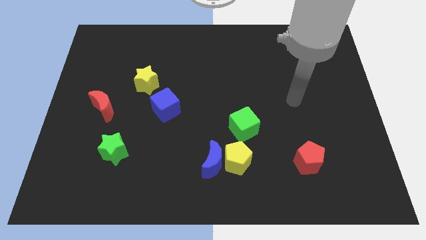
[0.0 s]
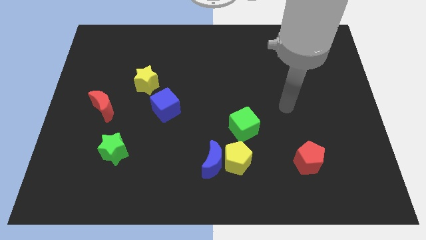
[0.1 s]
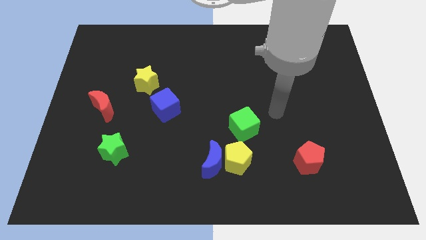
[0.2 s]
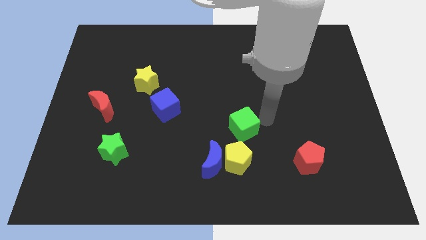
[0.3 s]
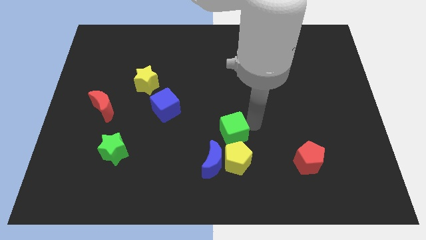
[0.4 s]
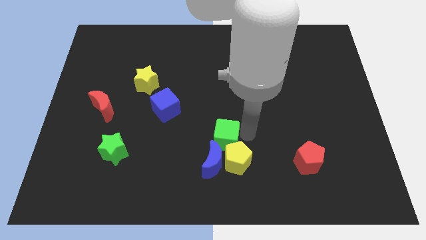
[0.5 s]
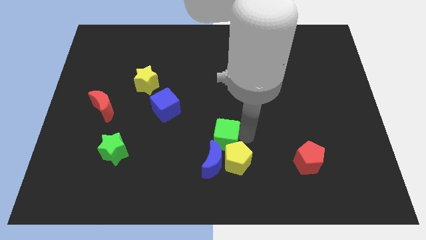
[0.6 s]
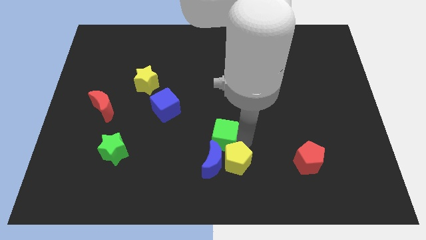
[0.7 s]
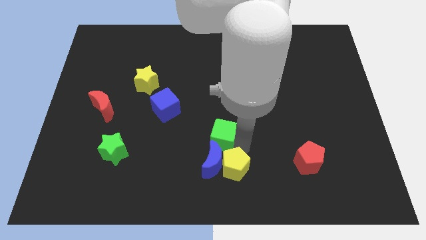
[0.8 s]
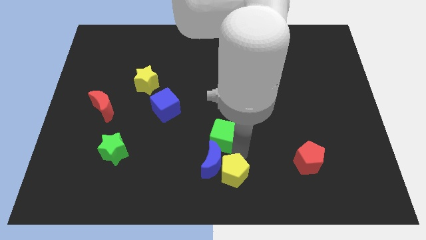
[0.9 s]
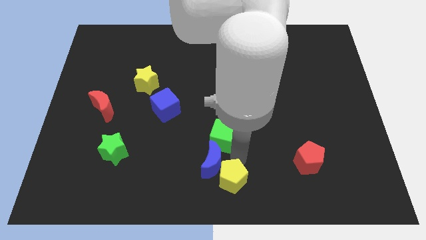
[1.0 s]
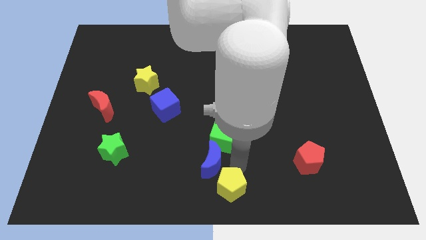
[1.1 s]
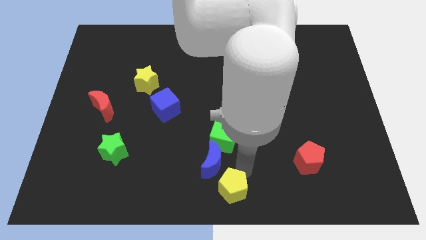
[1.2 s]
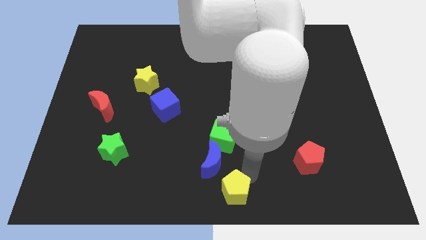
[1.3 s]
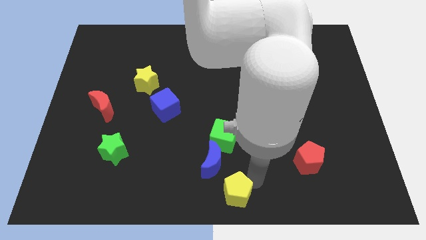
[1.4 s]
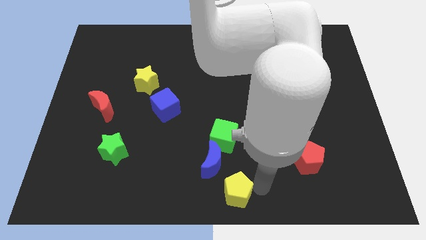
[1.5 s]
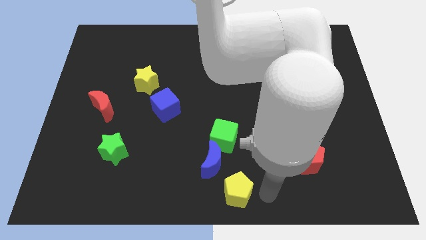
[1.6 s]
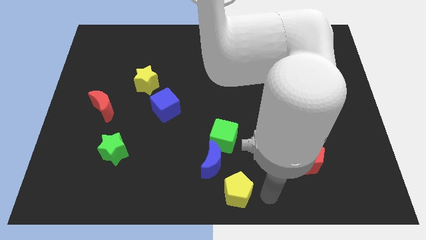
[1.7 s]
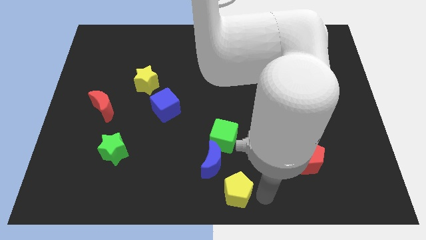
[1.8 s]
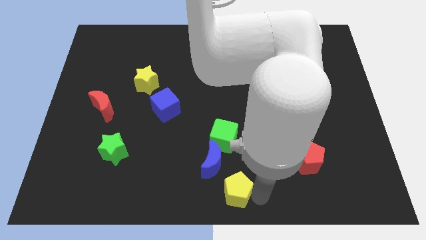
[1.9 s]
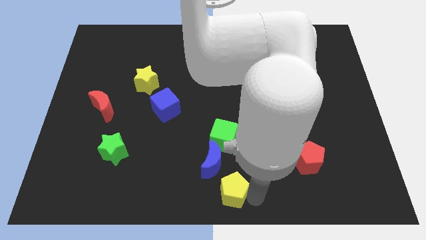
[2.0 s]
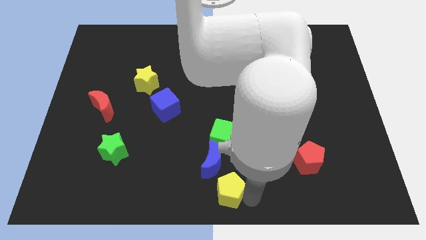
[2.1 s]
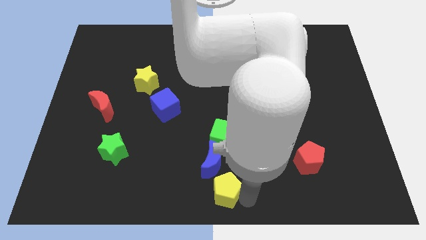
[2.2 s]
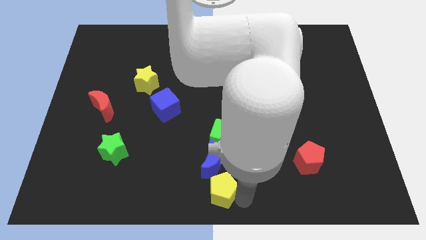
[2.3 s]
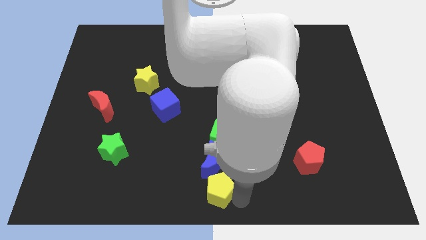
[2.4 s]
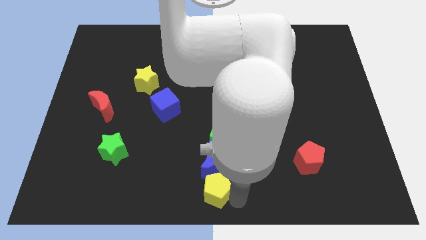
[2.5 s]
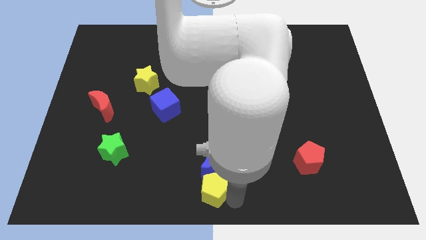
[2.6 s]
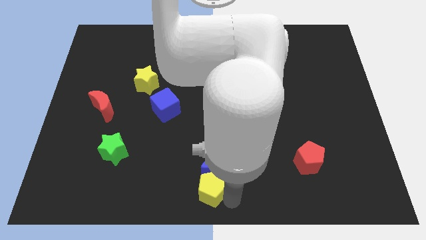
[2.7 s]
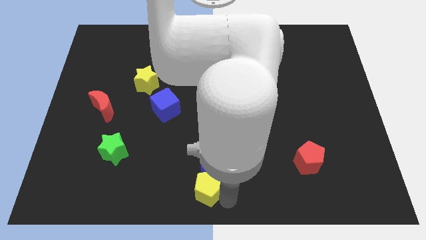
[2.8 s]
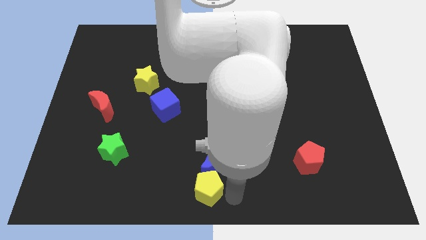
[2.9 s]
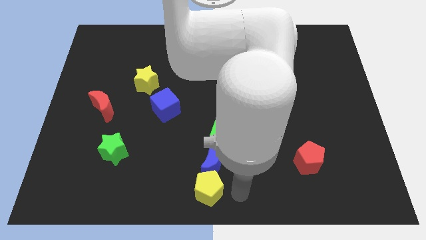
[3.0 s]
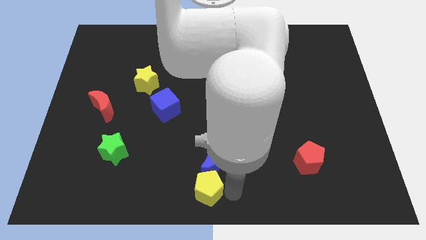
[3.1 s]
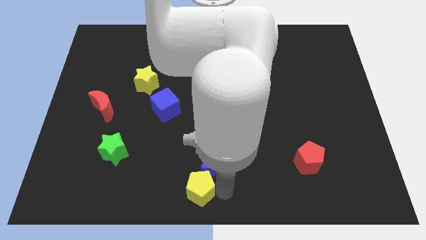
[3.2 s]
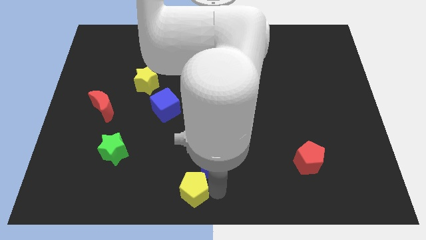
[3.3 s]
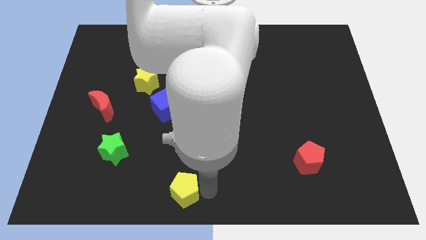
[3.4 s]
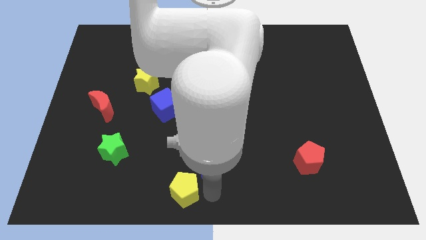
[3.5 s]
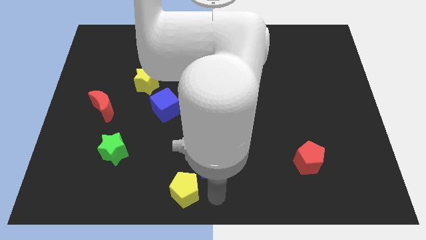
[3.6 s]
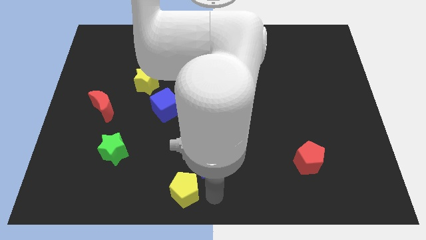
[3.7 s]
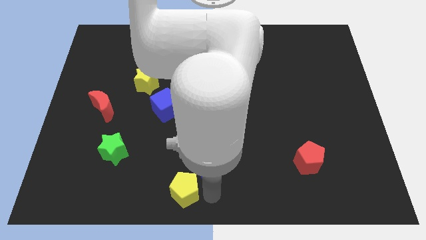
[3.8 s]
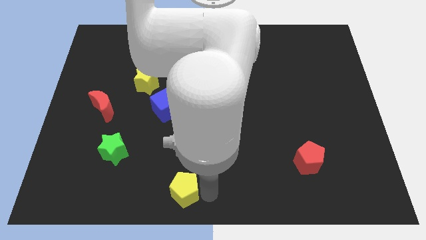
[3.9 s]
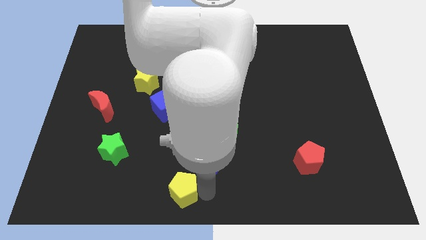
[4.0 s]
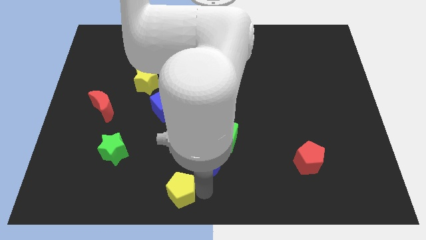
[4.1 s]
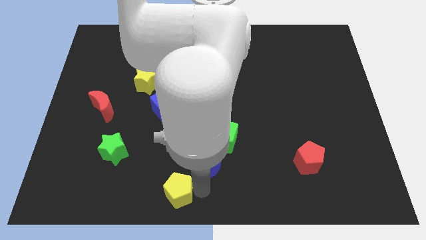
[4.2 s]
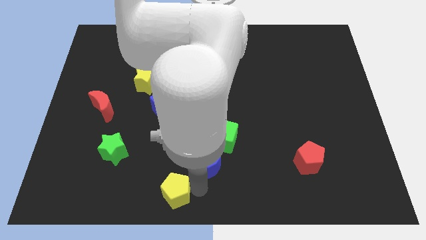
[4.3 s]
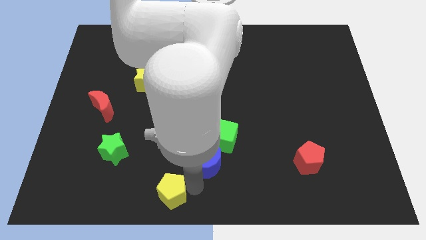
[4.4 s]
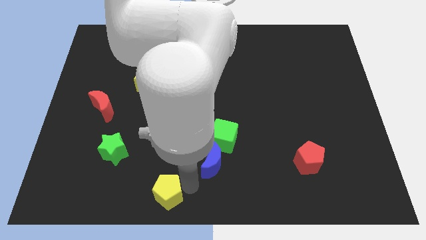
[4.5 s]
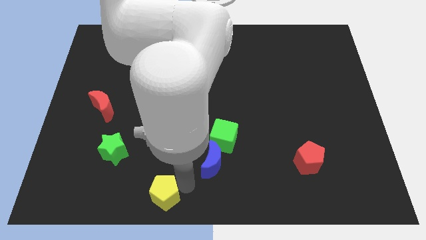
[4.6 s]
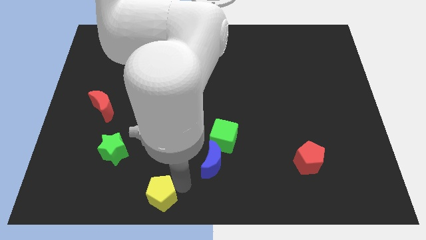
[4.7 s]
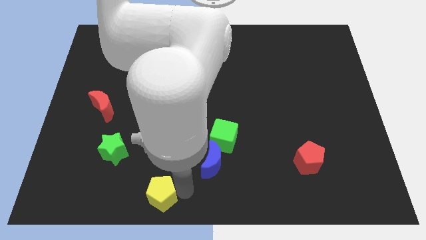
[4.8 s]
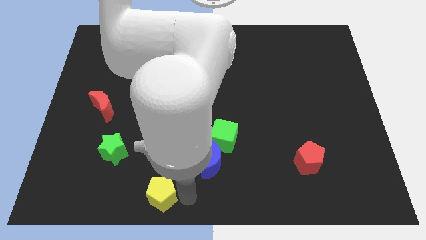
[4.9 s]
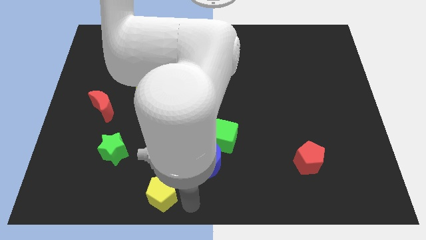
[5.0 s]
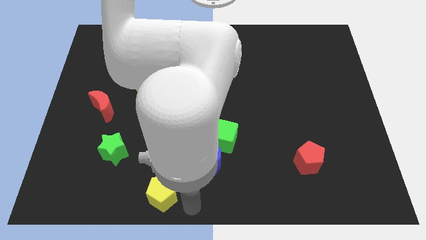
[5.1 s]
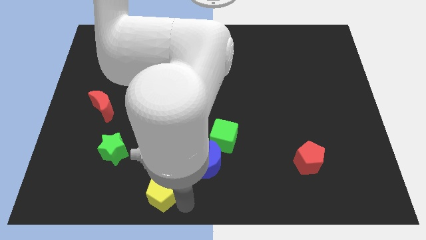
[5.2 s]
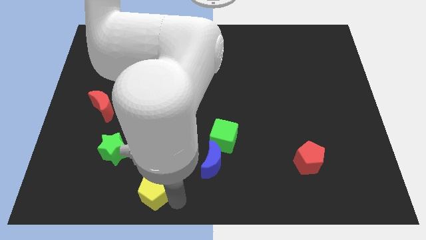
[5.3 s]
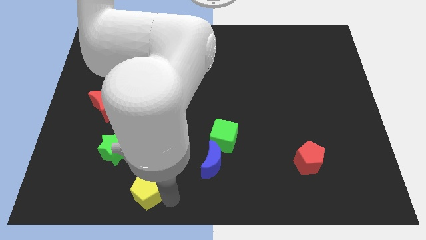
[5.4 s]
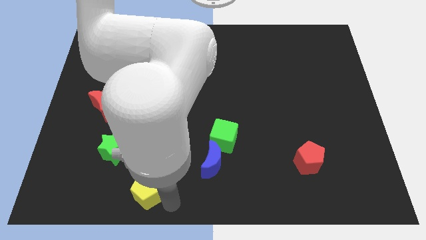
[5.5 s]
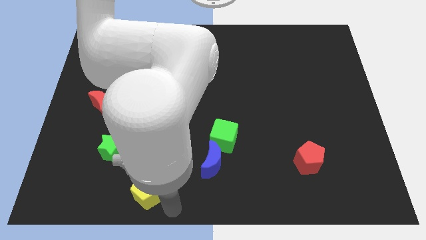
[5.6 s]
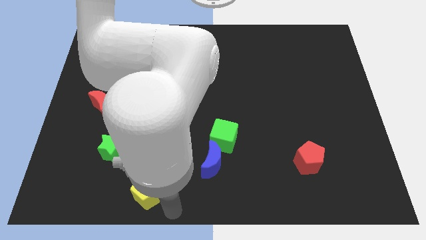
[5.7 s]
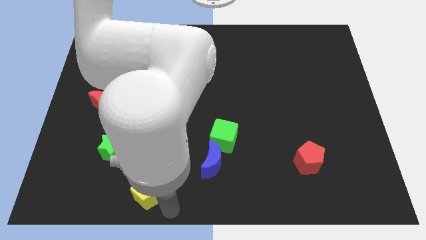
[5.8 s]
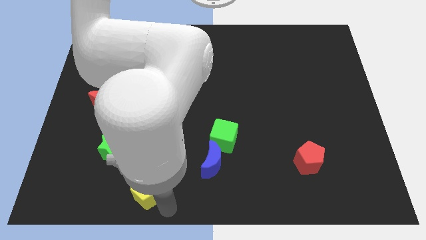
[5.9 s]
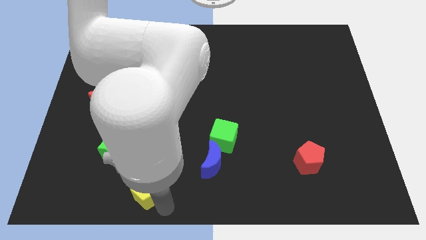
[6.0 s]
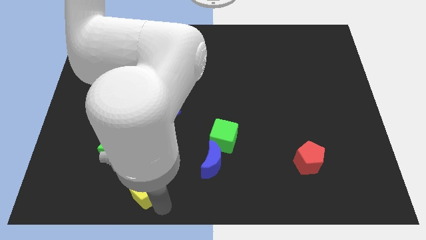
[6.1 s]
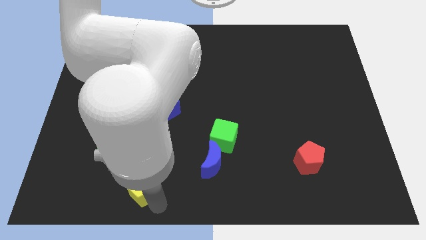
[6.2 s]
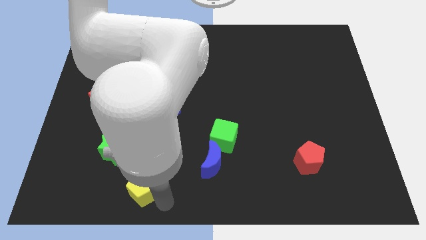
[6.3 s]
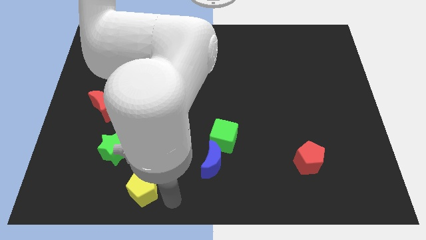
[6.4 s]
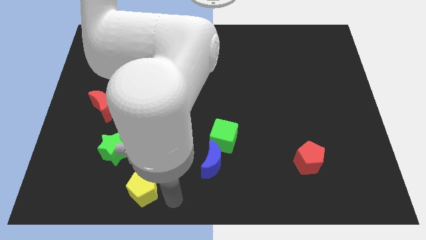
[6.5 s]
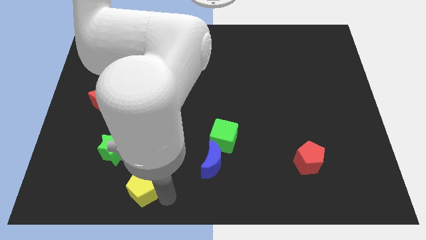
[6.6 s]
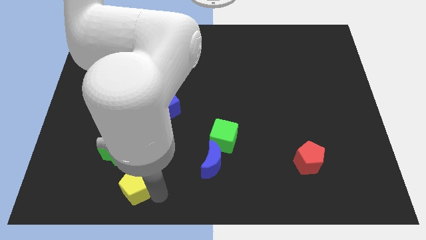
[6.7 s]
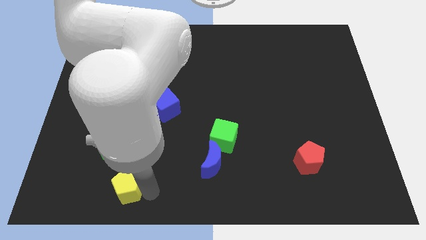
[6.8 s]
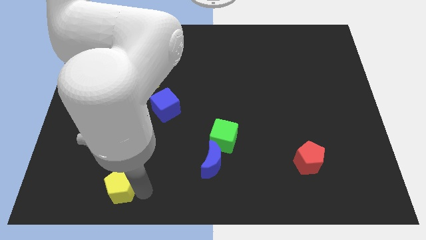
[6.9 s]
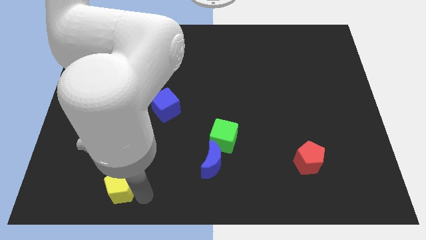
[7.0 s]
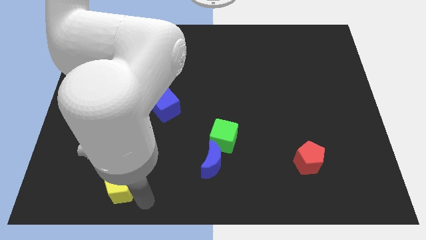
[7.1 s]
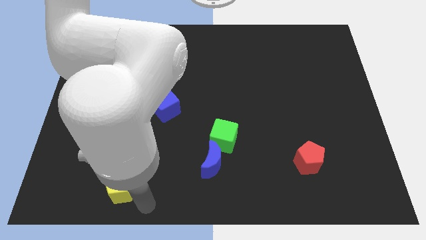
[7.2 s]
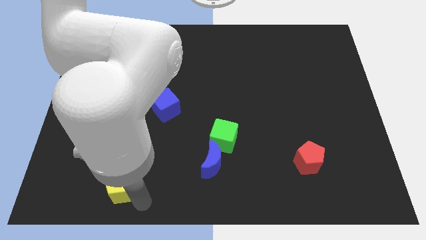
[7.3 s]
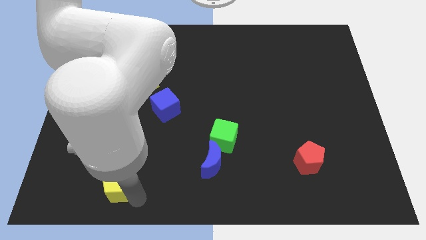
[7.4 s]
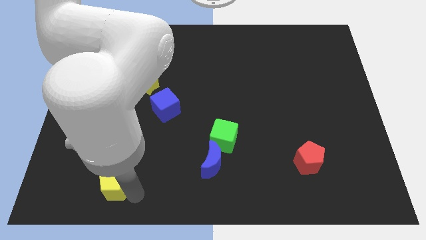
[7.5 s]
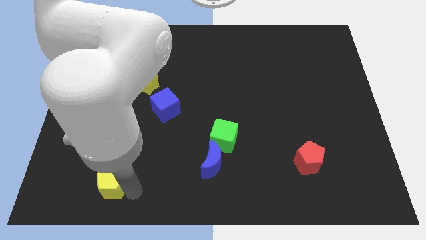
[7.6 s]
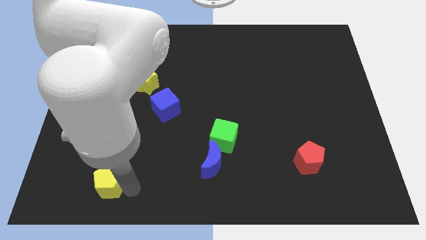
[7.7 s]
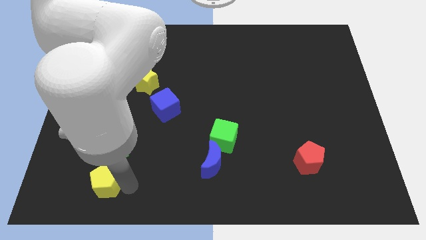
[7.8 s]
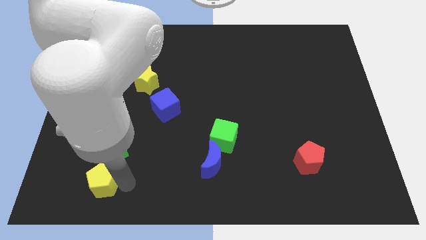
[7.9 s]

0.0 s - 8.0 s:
push the yellow pentagon to the bottom left side of the green star
